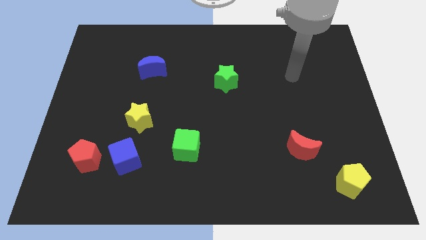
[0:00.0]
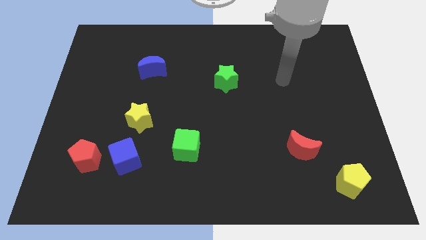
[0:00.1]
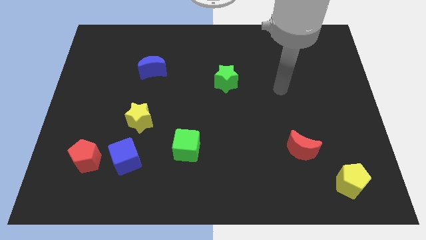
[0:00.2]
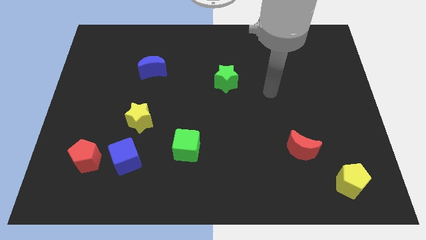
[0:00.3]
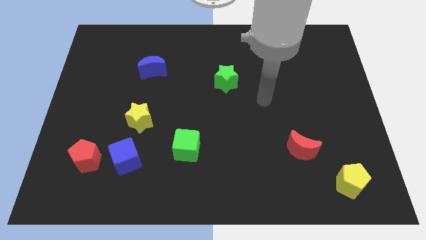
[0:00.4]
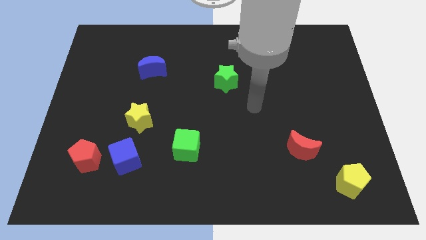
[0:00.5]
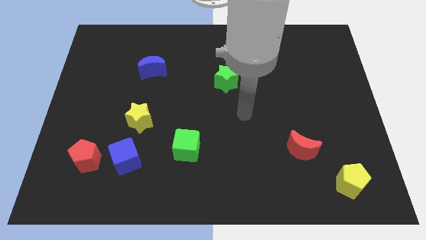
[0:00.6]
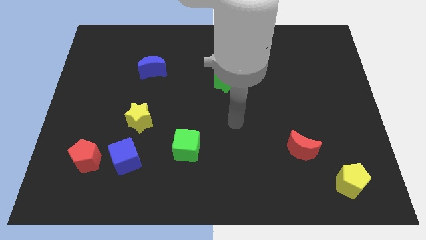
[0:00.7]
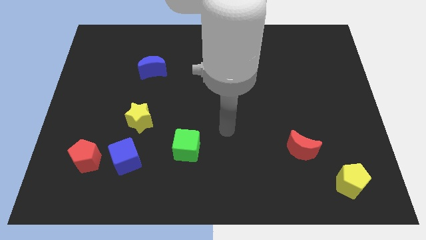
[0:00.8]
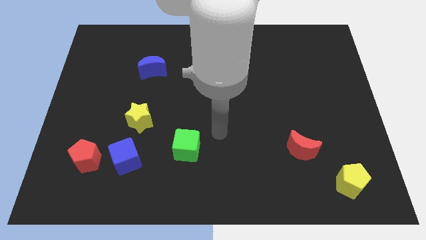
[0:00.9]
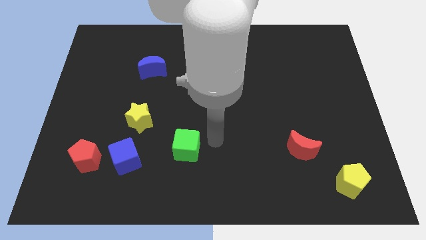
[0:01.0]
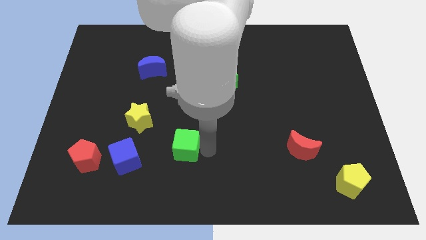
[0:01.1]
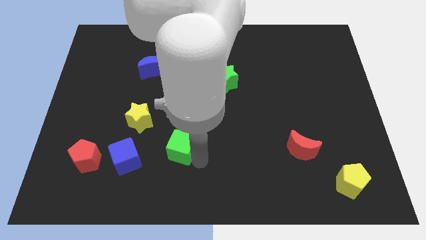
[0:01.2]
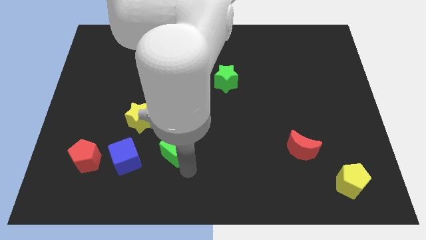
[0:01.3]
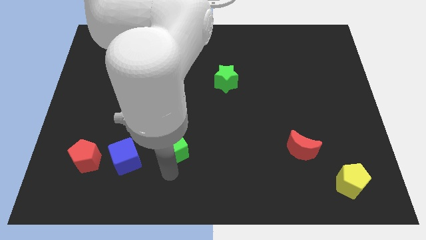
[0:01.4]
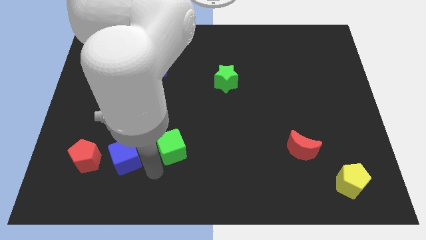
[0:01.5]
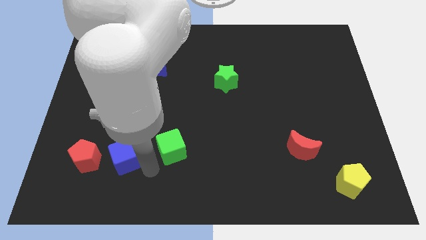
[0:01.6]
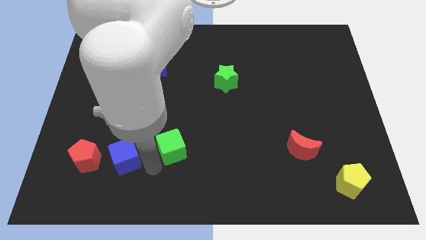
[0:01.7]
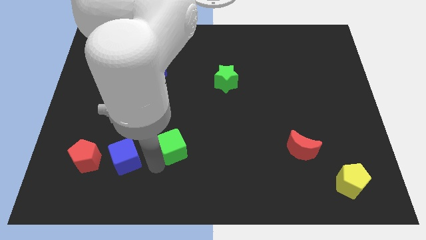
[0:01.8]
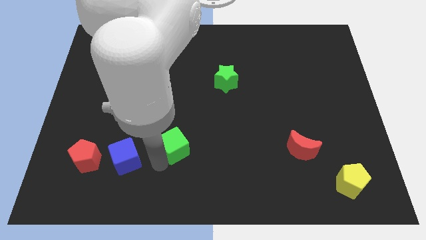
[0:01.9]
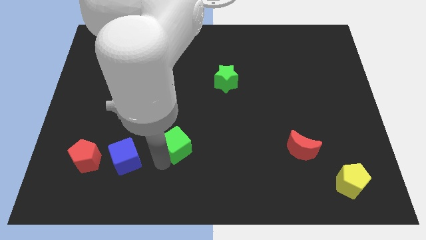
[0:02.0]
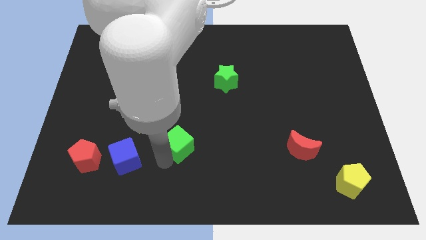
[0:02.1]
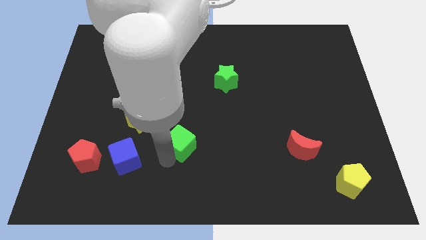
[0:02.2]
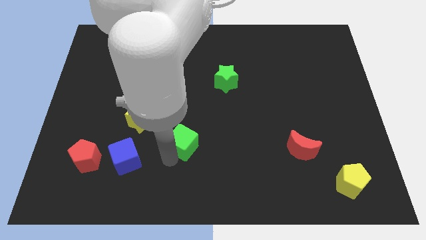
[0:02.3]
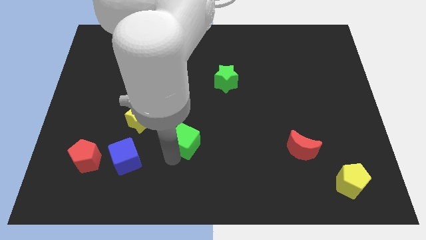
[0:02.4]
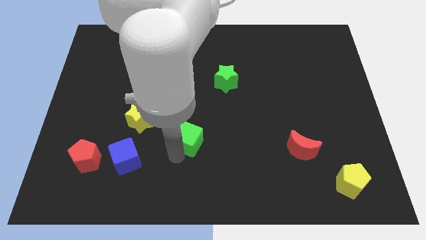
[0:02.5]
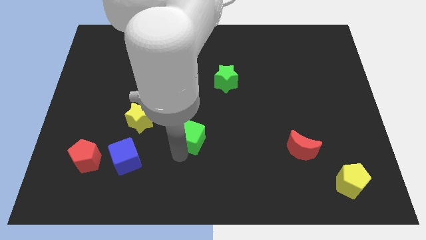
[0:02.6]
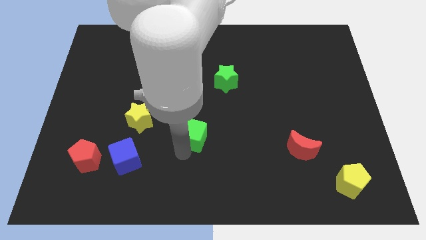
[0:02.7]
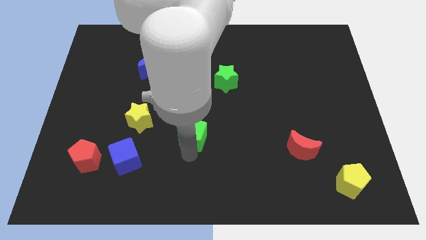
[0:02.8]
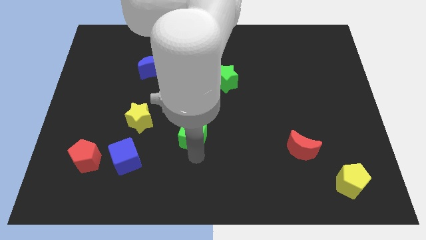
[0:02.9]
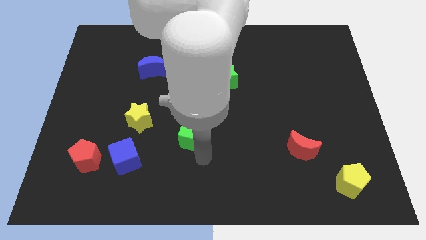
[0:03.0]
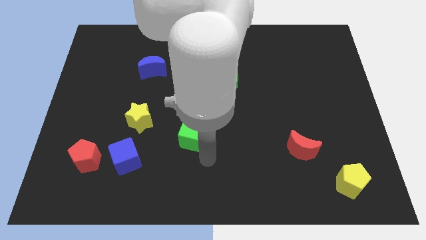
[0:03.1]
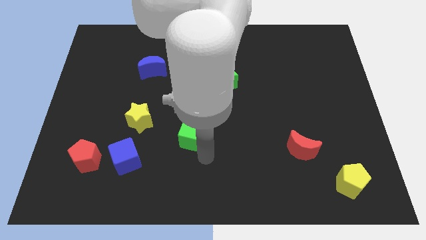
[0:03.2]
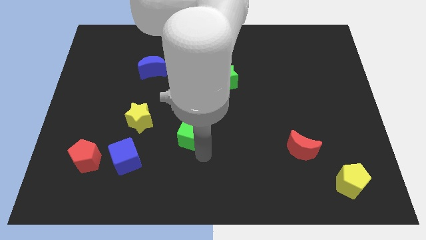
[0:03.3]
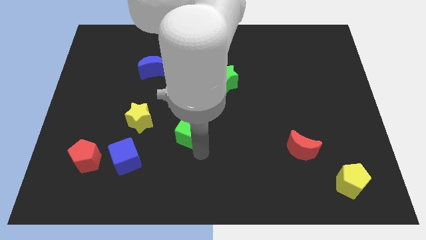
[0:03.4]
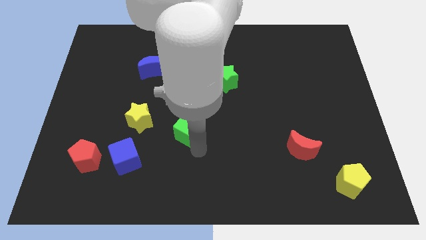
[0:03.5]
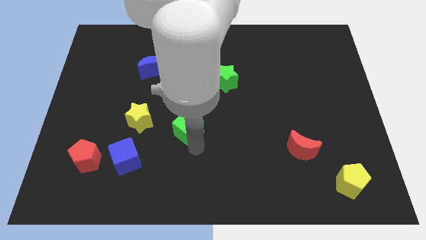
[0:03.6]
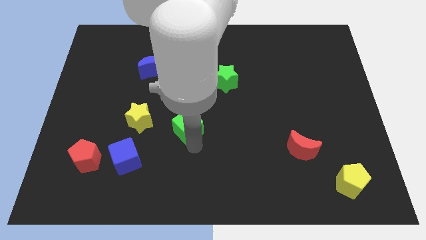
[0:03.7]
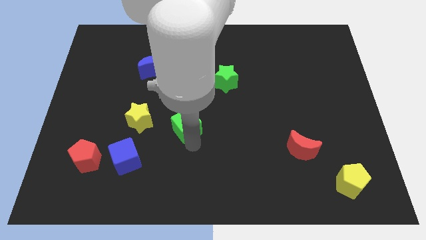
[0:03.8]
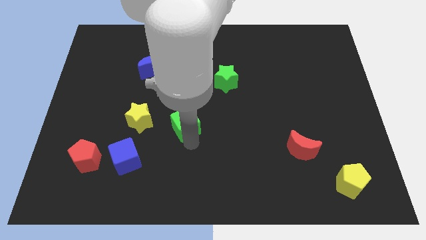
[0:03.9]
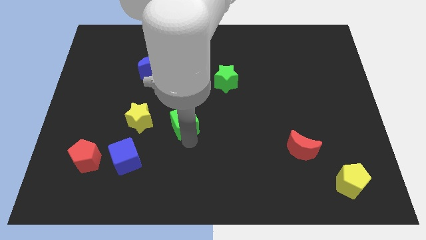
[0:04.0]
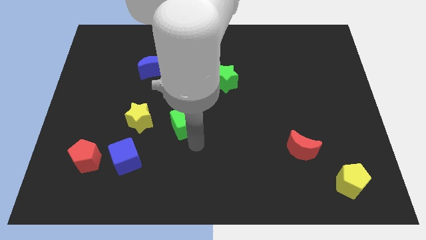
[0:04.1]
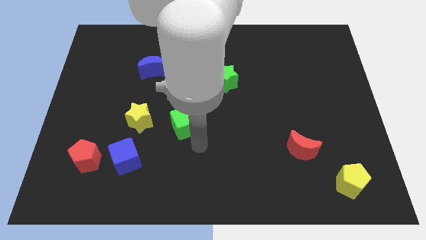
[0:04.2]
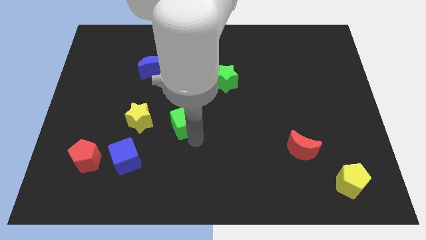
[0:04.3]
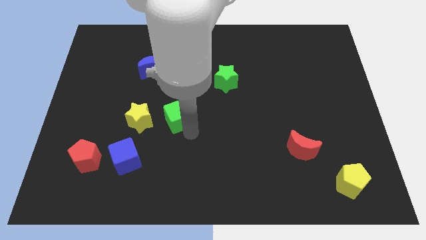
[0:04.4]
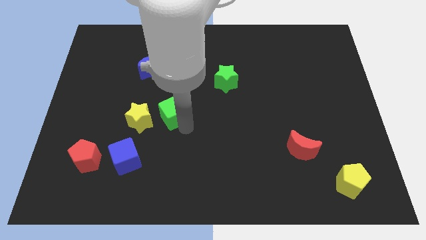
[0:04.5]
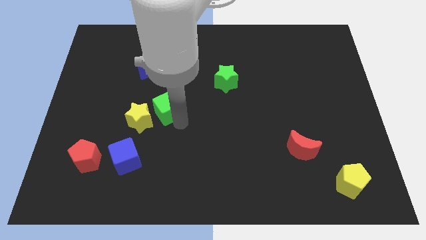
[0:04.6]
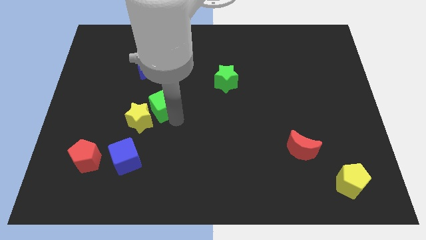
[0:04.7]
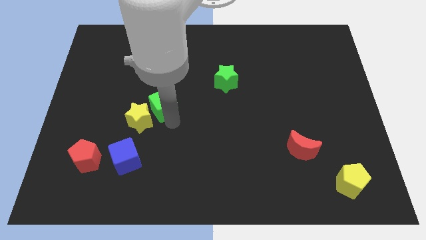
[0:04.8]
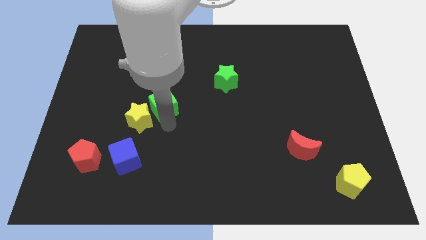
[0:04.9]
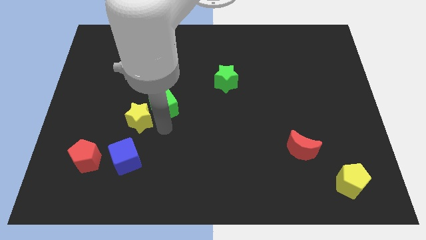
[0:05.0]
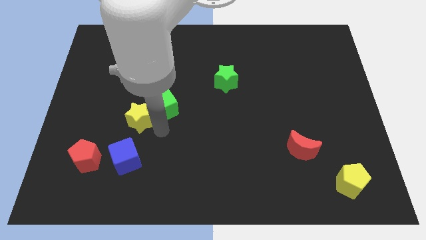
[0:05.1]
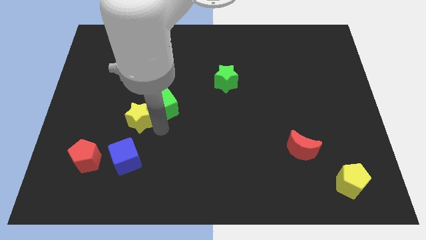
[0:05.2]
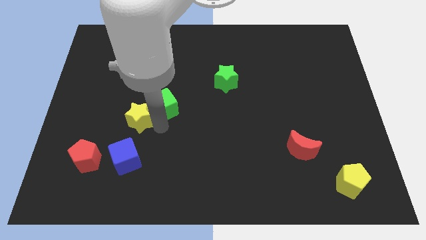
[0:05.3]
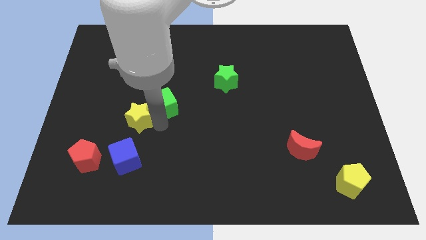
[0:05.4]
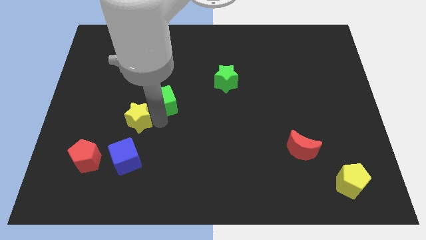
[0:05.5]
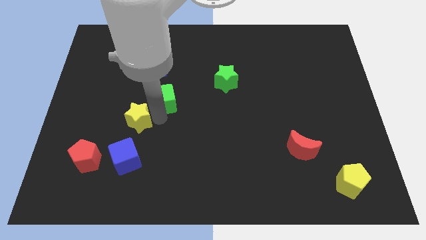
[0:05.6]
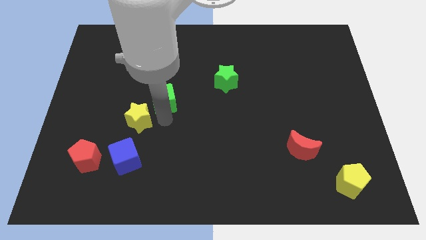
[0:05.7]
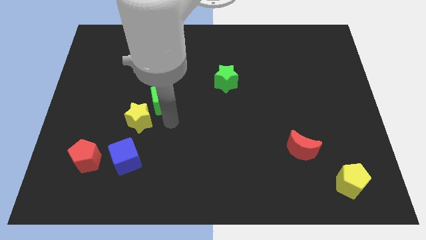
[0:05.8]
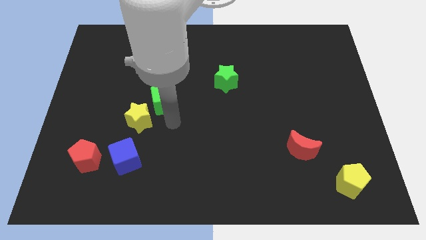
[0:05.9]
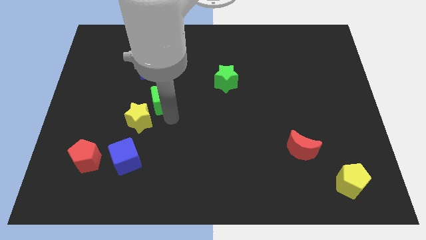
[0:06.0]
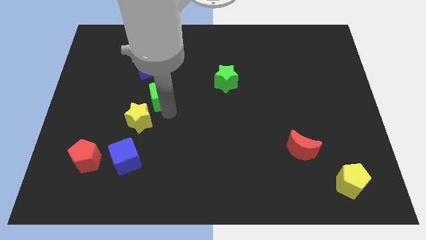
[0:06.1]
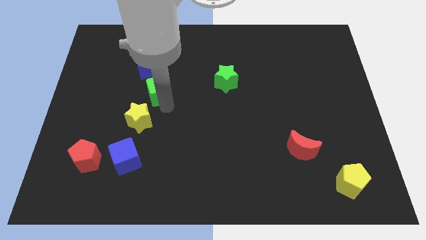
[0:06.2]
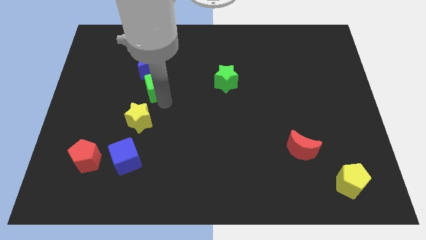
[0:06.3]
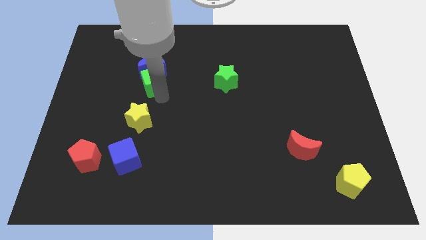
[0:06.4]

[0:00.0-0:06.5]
slide the green cube close to the blue moon

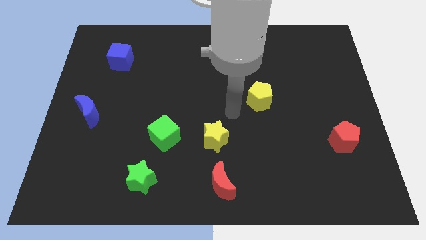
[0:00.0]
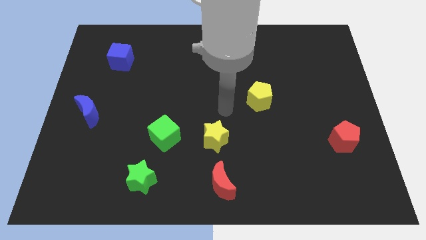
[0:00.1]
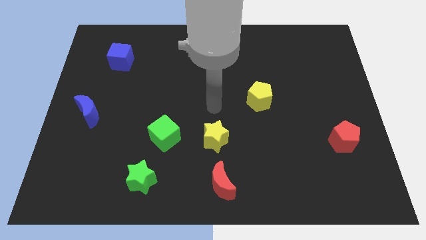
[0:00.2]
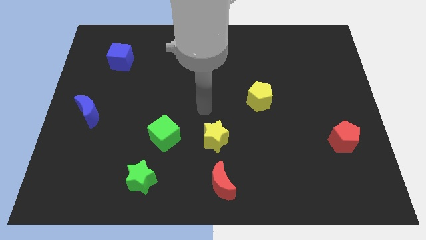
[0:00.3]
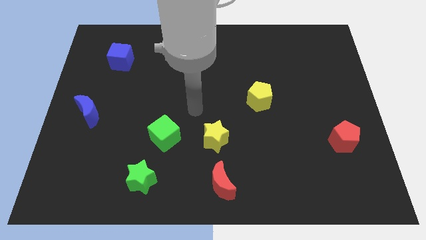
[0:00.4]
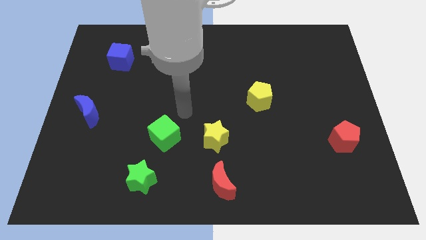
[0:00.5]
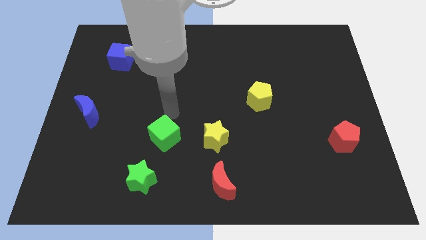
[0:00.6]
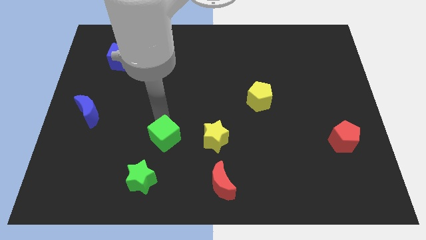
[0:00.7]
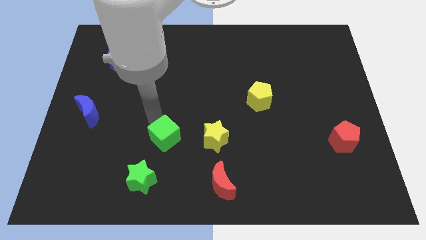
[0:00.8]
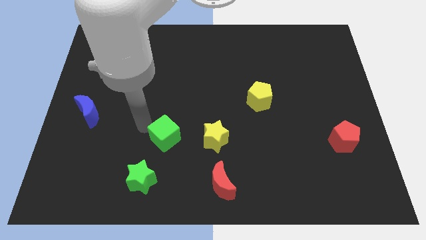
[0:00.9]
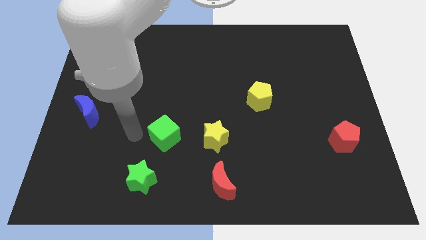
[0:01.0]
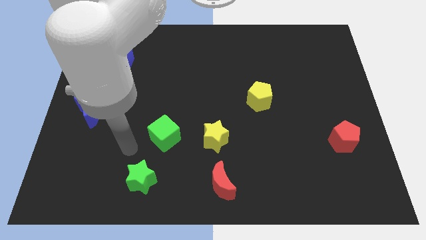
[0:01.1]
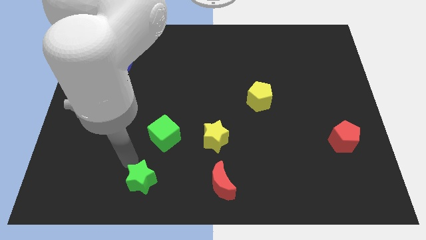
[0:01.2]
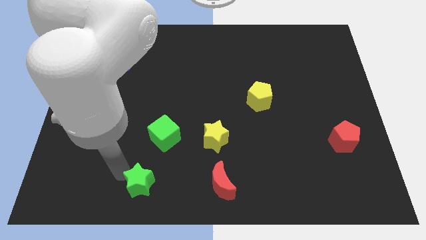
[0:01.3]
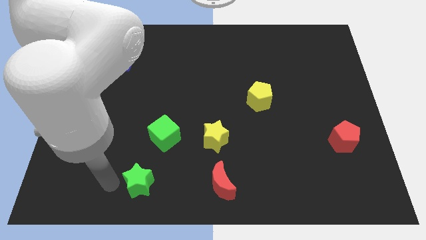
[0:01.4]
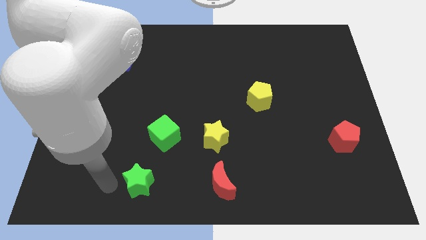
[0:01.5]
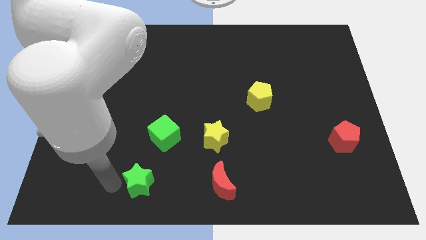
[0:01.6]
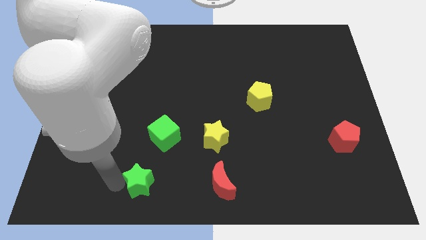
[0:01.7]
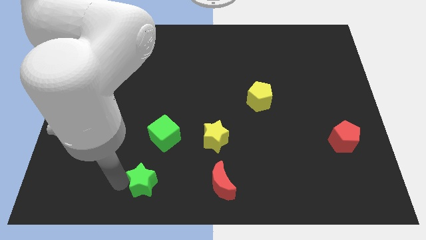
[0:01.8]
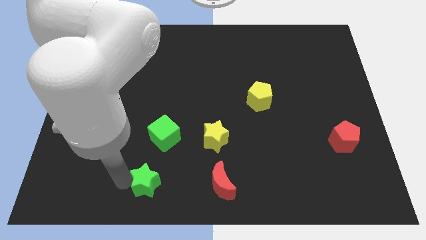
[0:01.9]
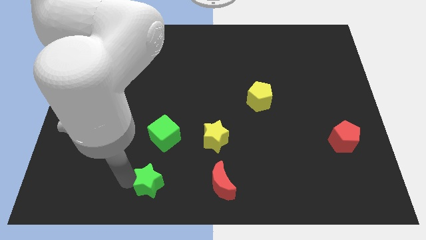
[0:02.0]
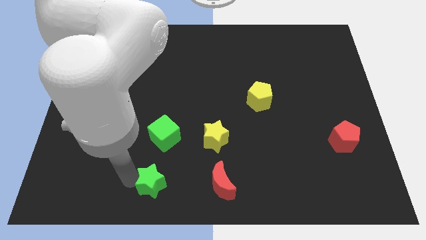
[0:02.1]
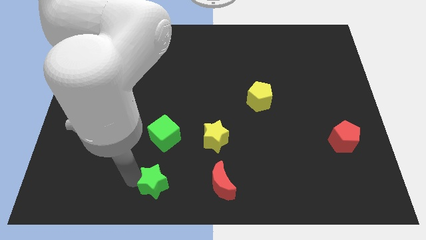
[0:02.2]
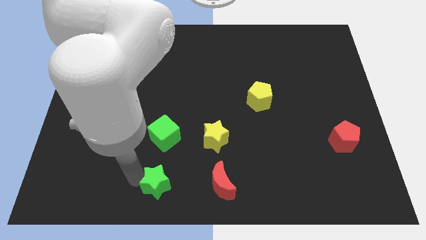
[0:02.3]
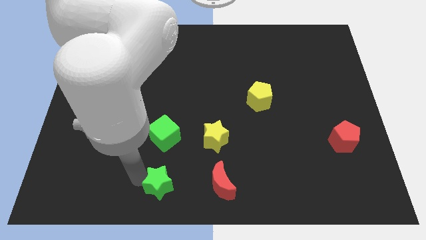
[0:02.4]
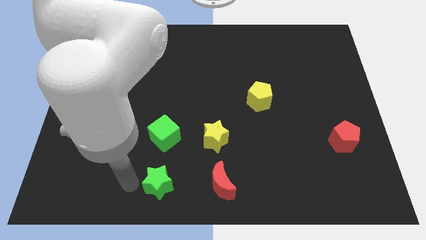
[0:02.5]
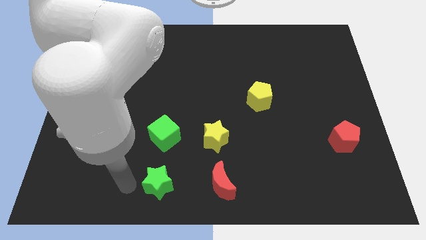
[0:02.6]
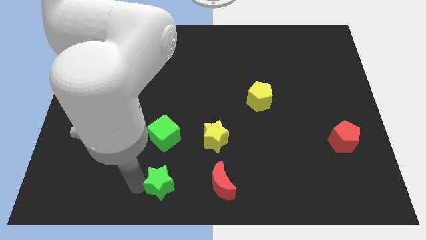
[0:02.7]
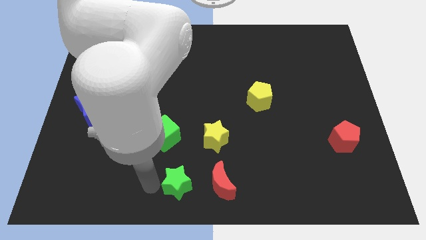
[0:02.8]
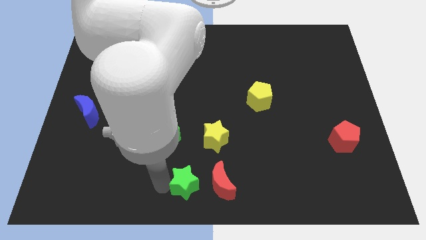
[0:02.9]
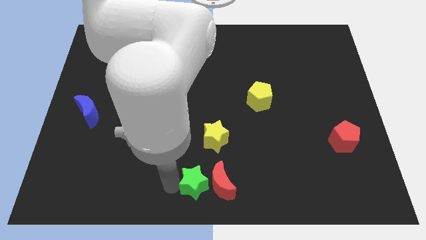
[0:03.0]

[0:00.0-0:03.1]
push the green star towards the red moon
